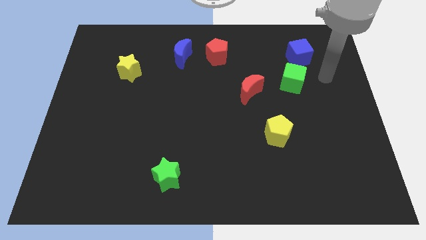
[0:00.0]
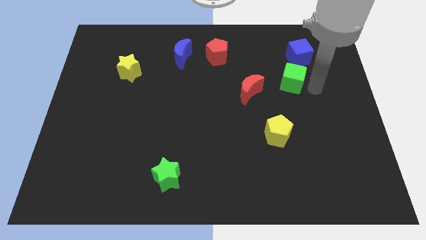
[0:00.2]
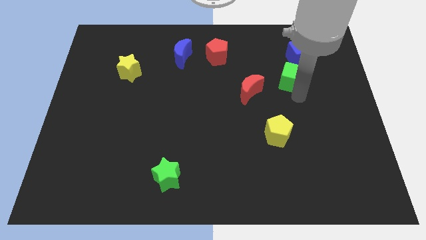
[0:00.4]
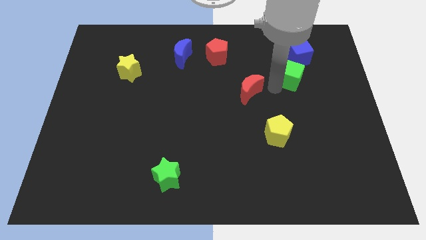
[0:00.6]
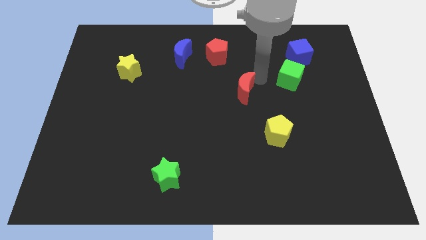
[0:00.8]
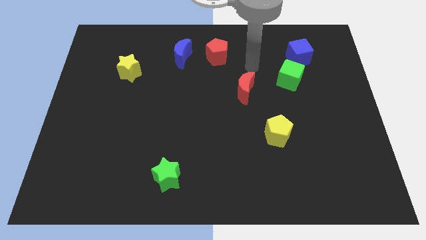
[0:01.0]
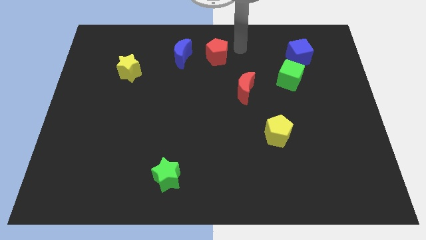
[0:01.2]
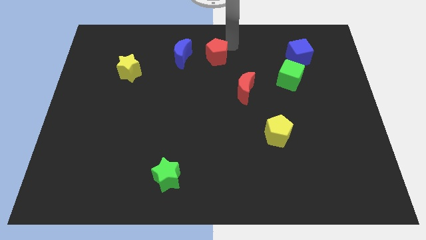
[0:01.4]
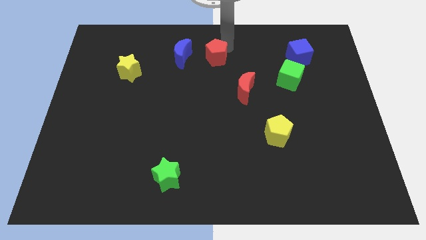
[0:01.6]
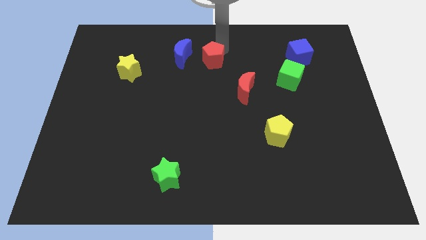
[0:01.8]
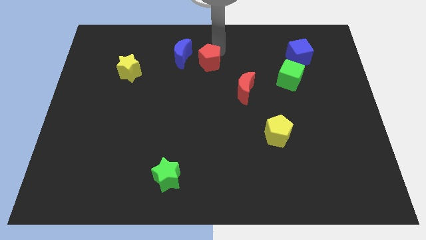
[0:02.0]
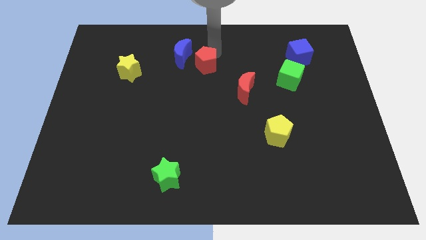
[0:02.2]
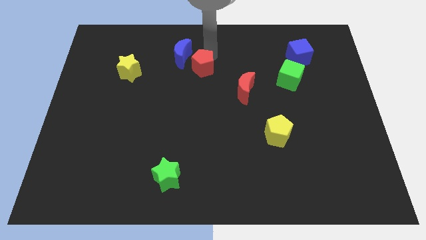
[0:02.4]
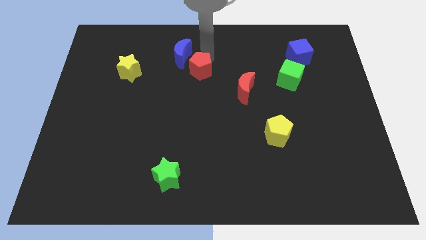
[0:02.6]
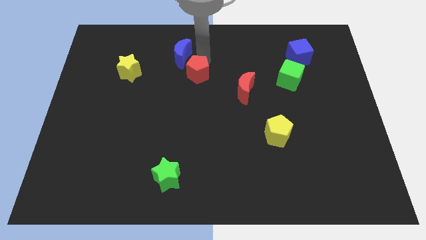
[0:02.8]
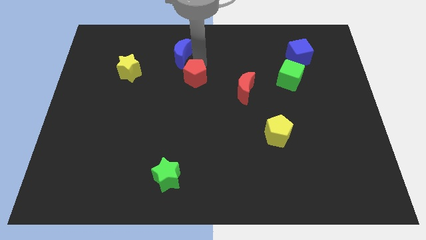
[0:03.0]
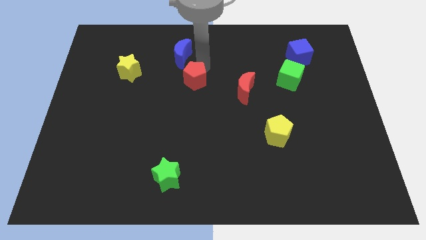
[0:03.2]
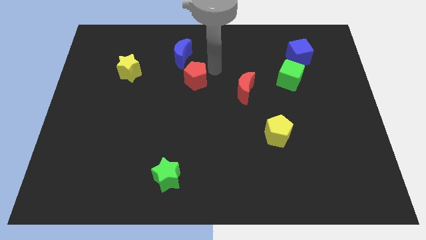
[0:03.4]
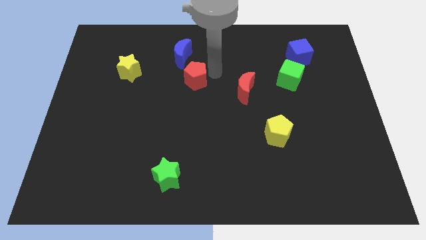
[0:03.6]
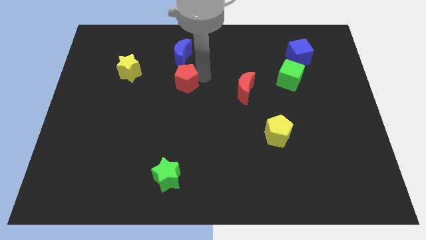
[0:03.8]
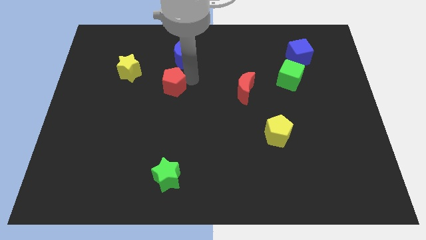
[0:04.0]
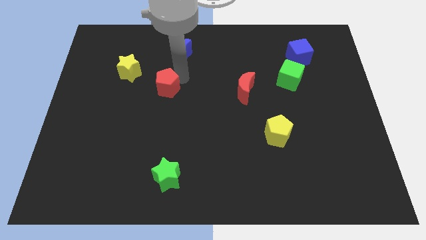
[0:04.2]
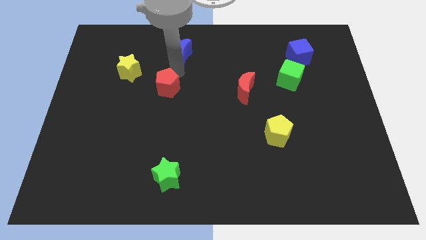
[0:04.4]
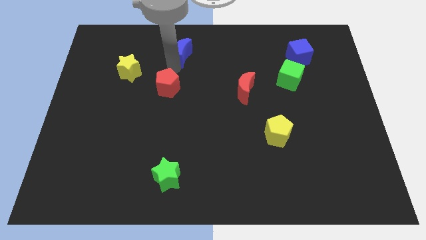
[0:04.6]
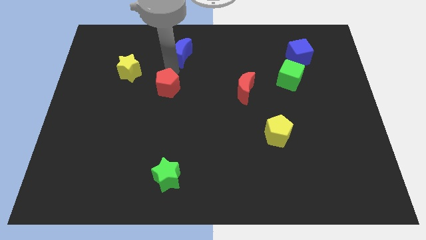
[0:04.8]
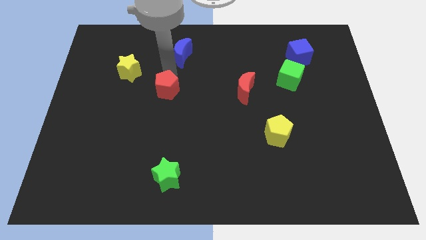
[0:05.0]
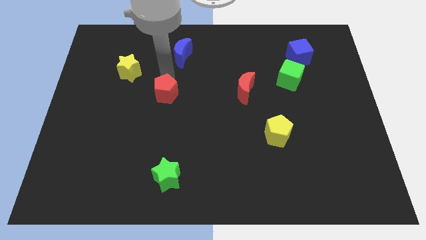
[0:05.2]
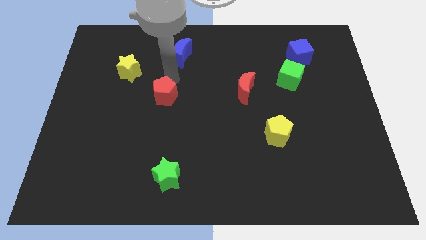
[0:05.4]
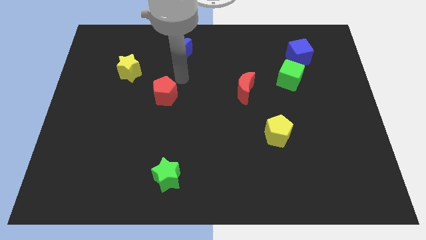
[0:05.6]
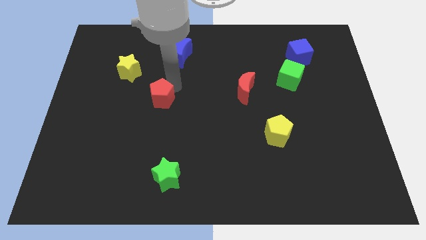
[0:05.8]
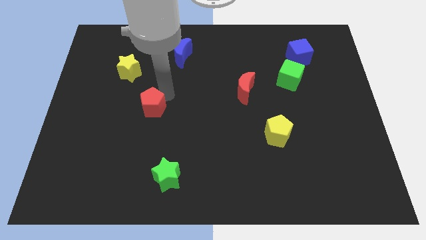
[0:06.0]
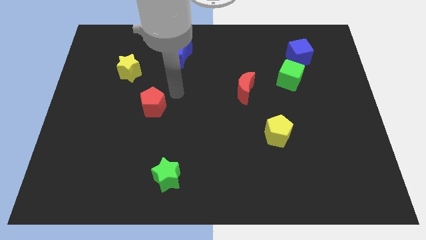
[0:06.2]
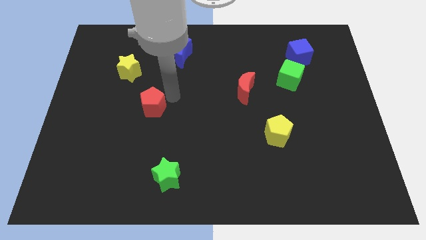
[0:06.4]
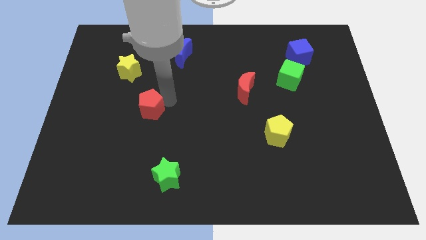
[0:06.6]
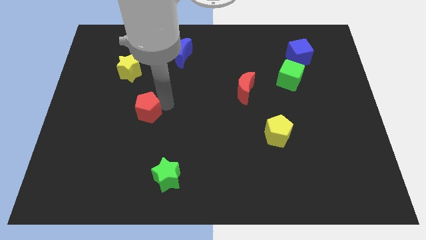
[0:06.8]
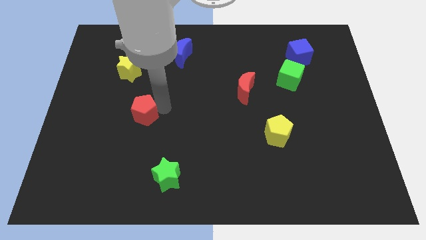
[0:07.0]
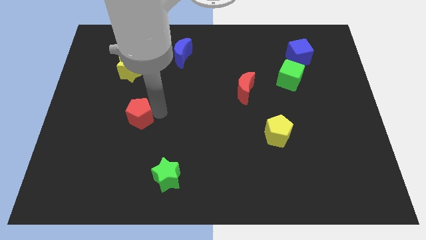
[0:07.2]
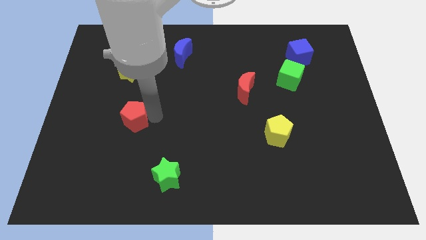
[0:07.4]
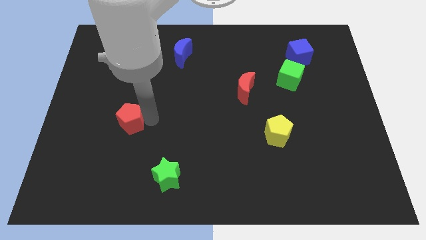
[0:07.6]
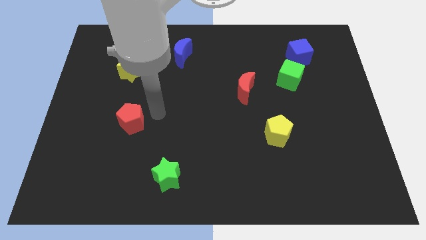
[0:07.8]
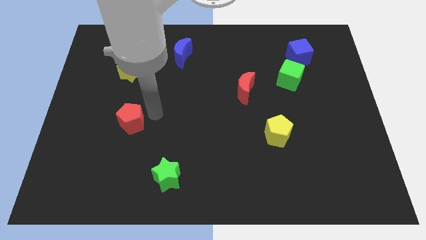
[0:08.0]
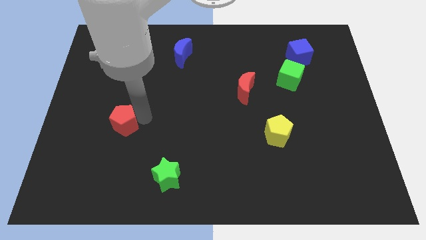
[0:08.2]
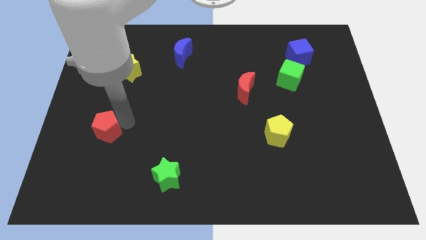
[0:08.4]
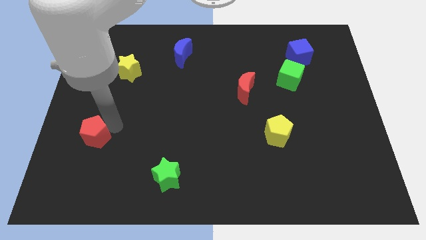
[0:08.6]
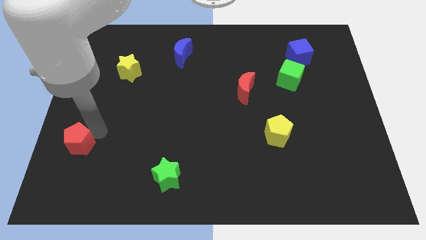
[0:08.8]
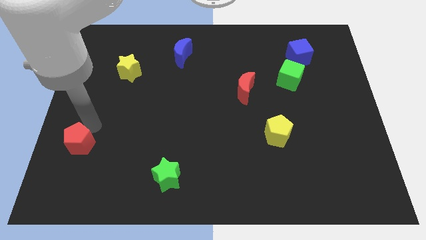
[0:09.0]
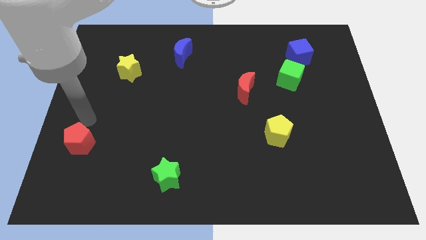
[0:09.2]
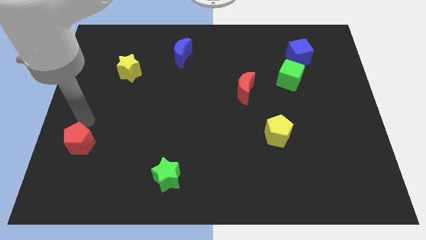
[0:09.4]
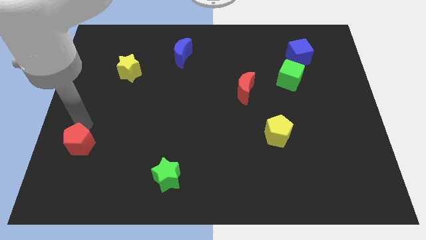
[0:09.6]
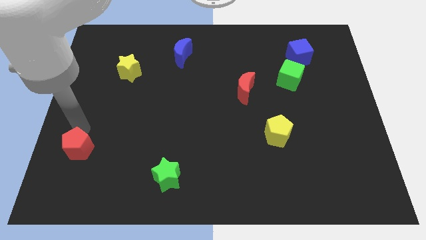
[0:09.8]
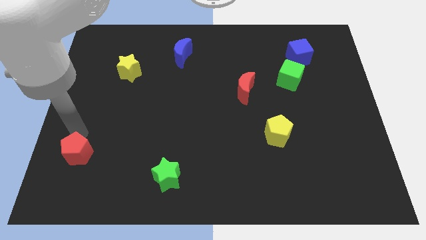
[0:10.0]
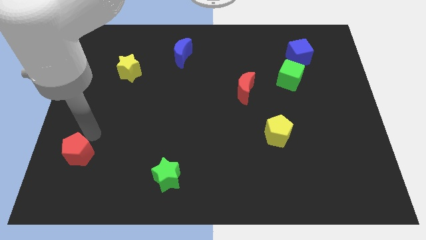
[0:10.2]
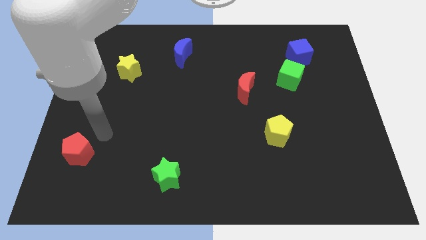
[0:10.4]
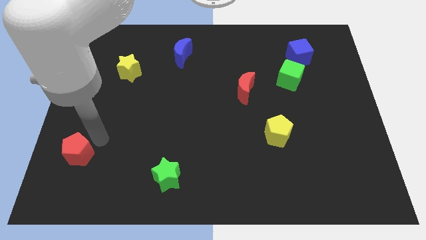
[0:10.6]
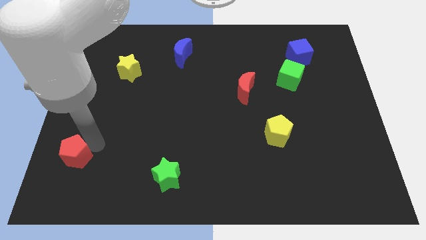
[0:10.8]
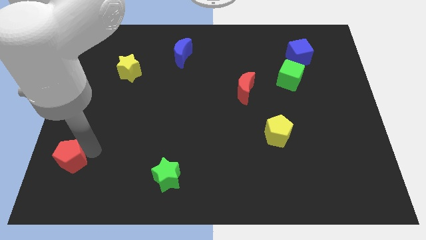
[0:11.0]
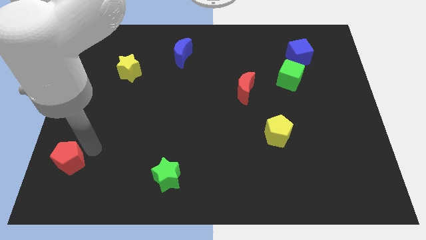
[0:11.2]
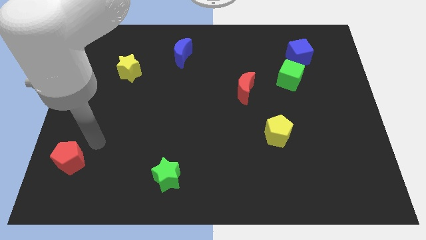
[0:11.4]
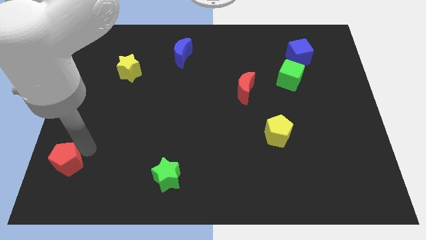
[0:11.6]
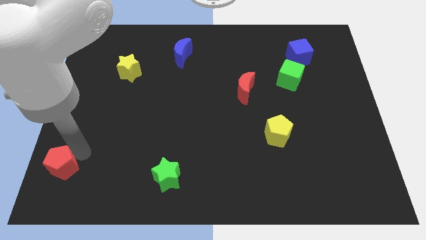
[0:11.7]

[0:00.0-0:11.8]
push the red pentagon to the lower left corner
